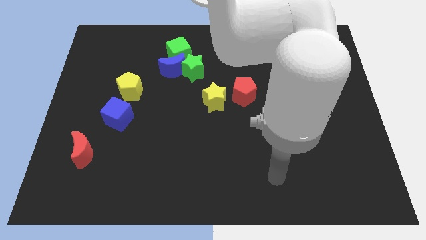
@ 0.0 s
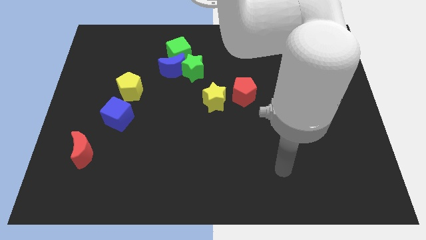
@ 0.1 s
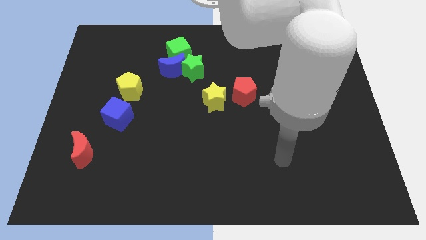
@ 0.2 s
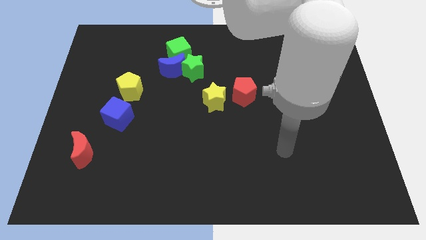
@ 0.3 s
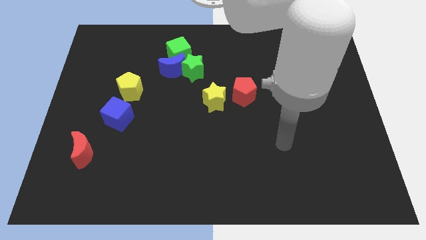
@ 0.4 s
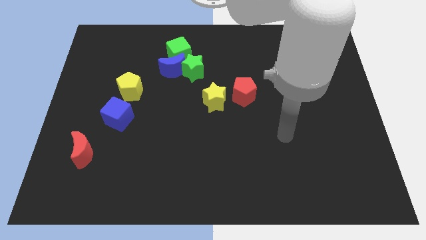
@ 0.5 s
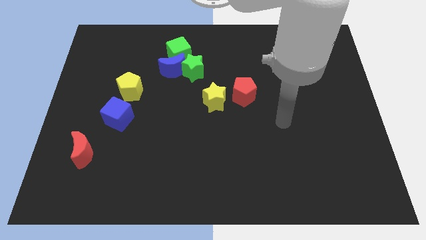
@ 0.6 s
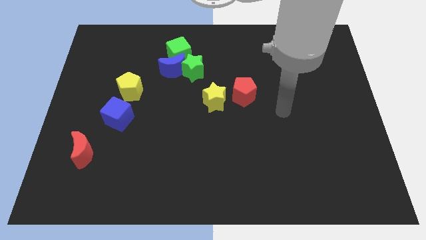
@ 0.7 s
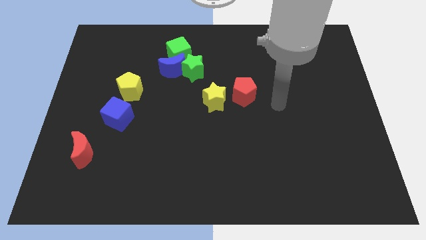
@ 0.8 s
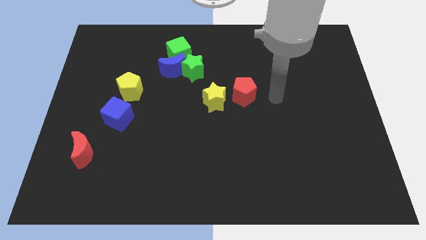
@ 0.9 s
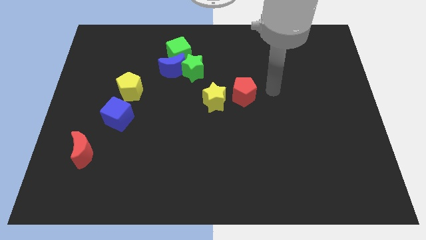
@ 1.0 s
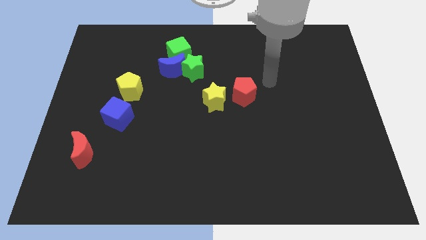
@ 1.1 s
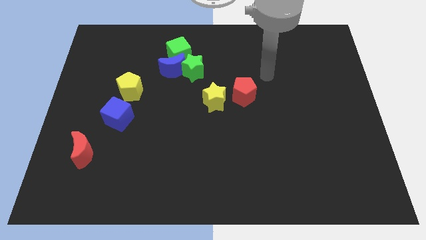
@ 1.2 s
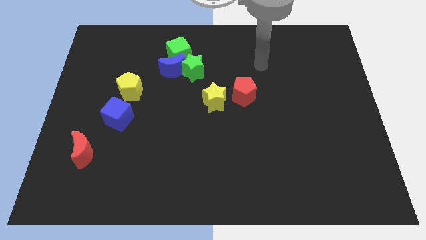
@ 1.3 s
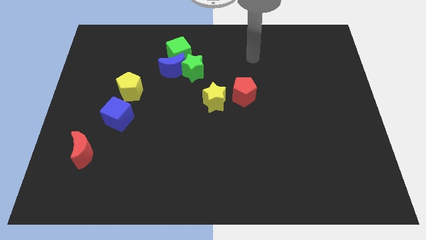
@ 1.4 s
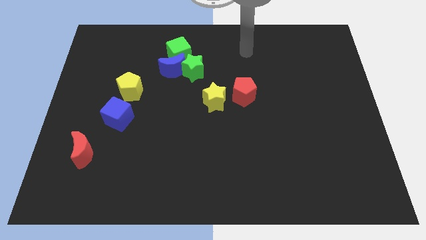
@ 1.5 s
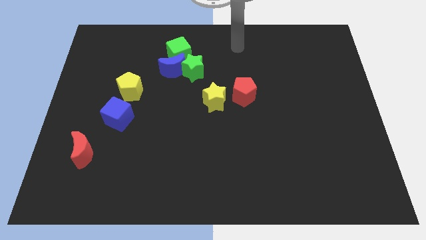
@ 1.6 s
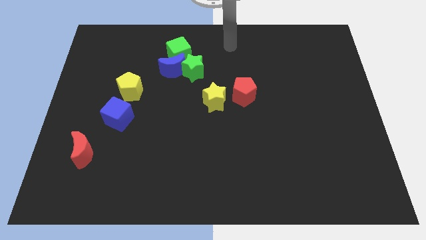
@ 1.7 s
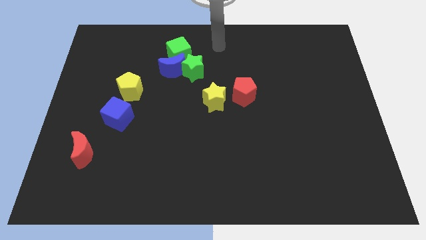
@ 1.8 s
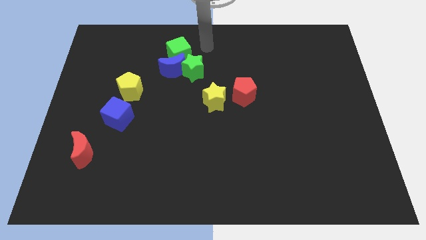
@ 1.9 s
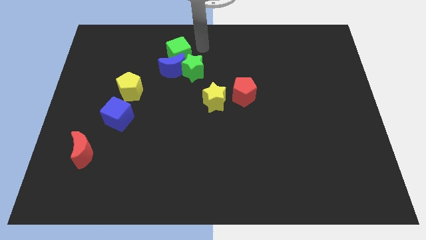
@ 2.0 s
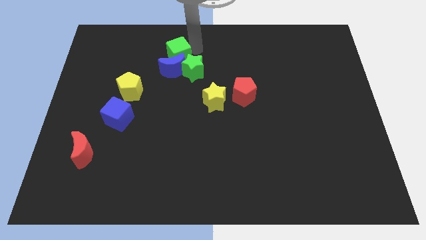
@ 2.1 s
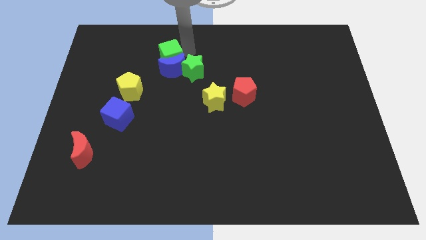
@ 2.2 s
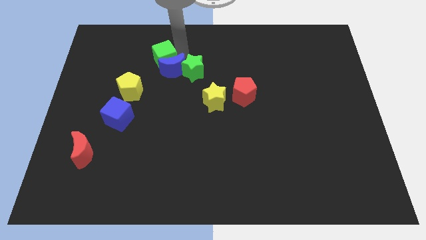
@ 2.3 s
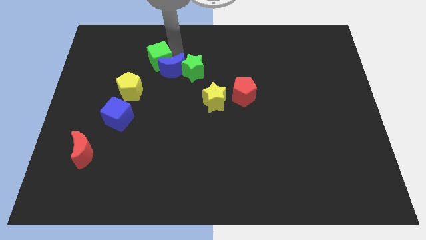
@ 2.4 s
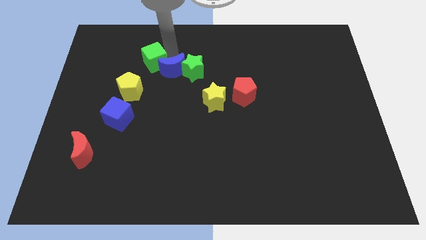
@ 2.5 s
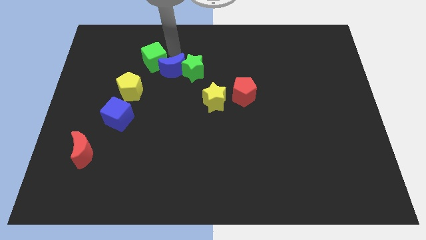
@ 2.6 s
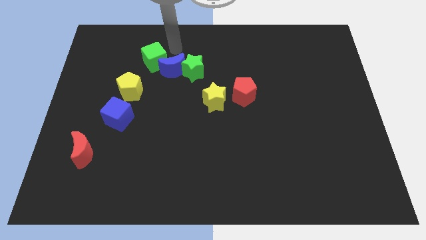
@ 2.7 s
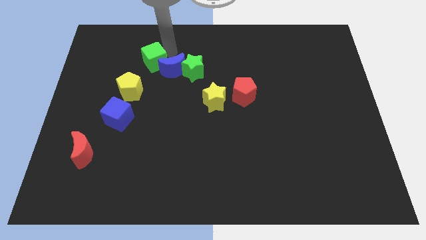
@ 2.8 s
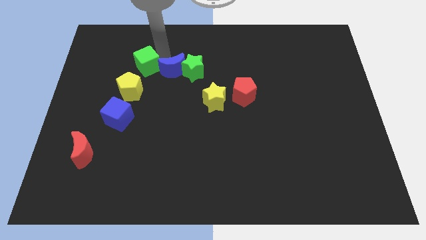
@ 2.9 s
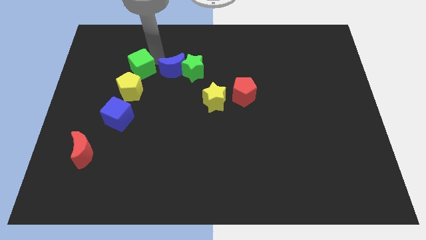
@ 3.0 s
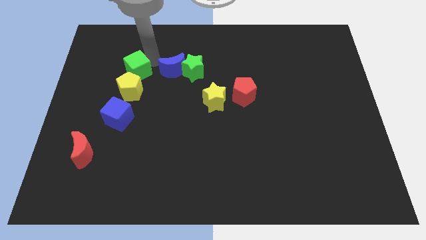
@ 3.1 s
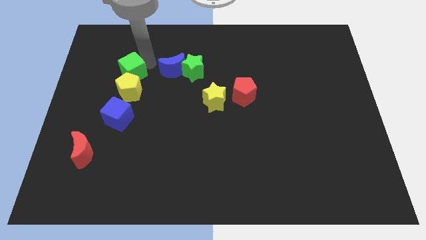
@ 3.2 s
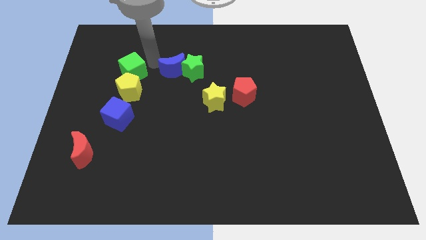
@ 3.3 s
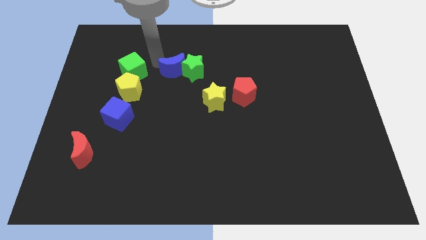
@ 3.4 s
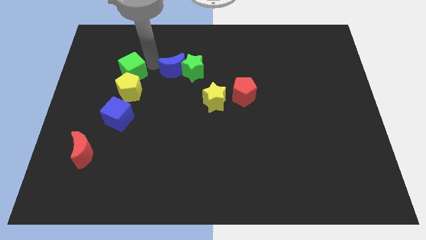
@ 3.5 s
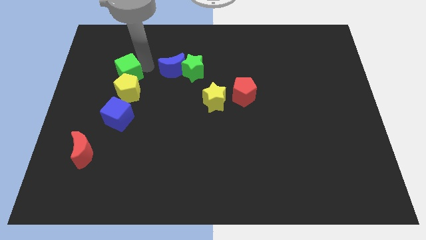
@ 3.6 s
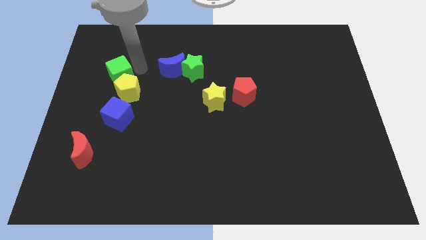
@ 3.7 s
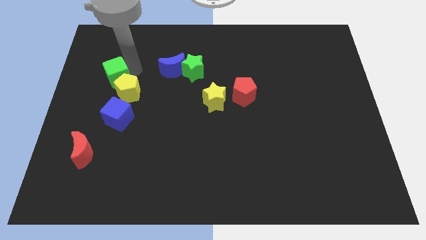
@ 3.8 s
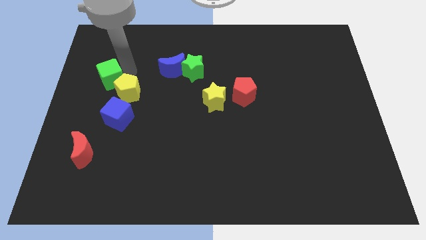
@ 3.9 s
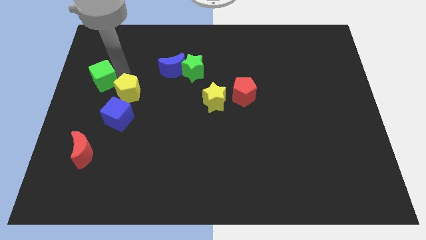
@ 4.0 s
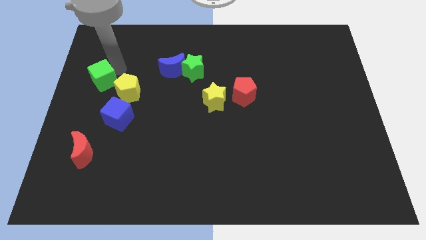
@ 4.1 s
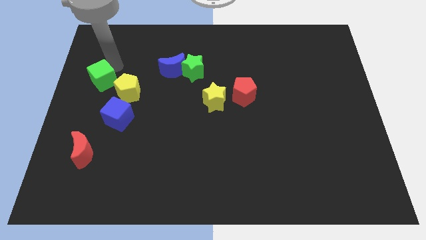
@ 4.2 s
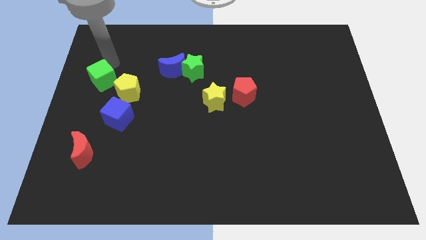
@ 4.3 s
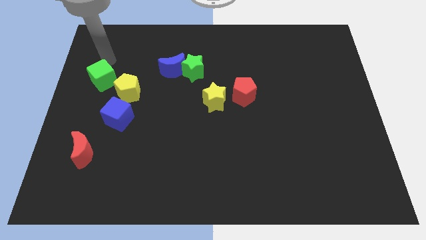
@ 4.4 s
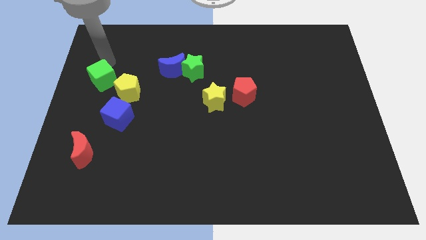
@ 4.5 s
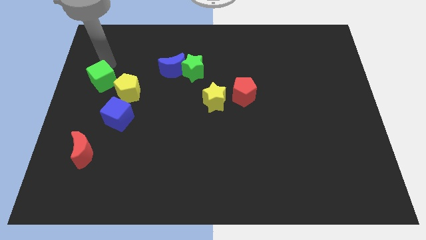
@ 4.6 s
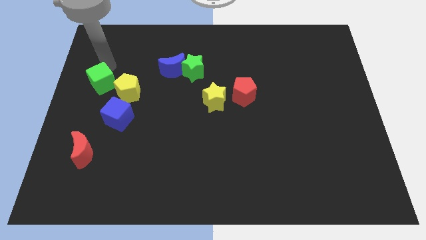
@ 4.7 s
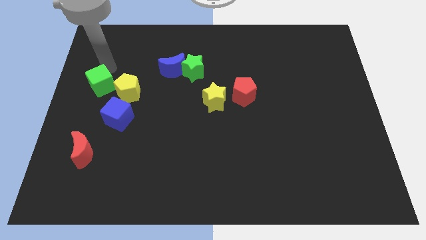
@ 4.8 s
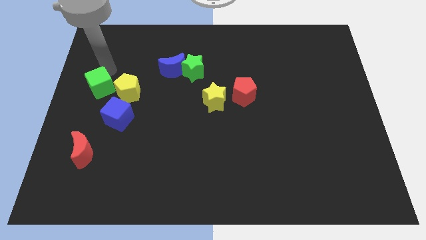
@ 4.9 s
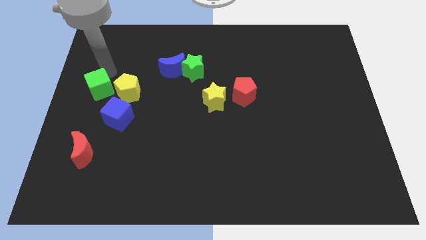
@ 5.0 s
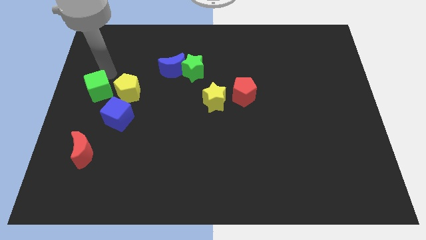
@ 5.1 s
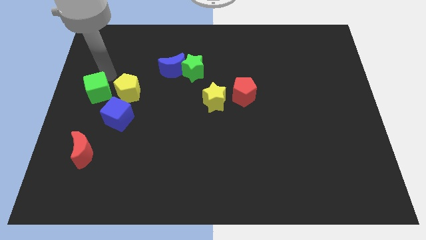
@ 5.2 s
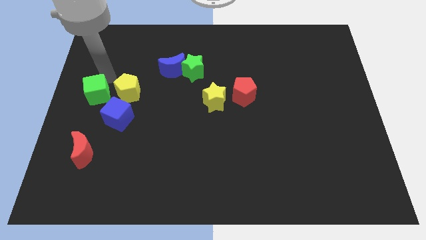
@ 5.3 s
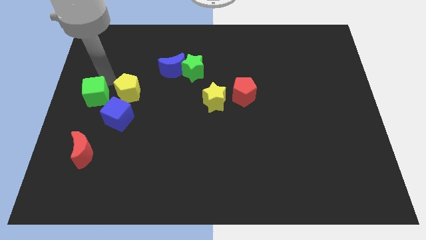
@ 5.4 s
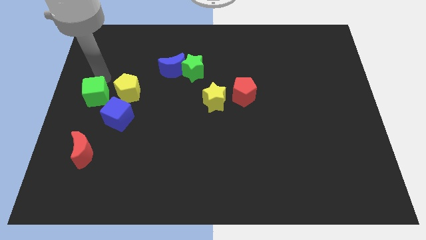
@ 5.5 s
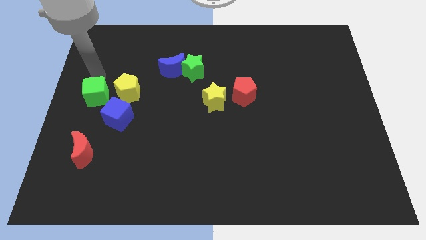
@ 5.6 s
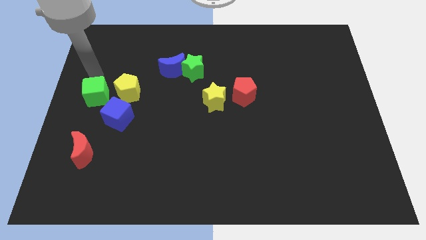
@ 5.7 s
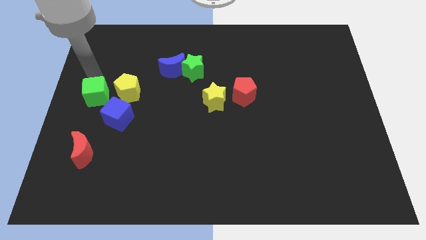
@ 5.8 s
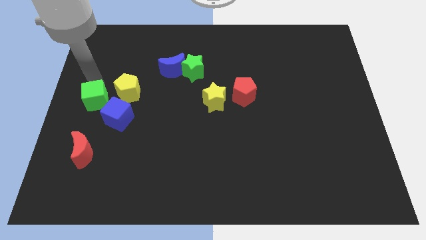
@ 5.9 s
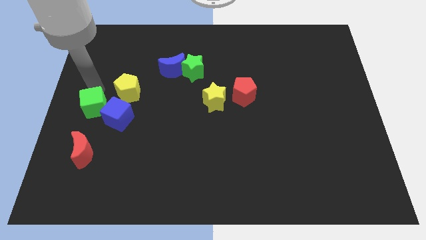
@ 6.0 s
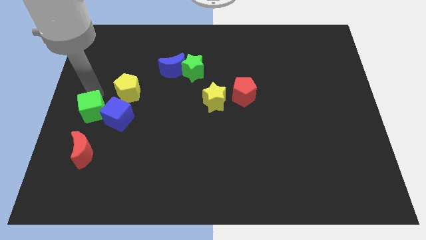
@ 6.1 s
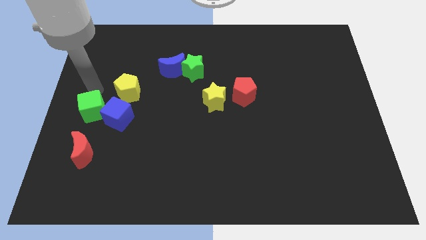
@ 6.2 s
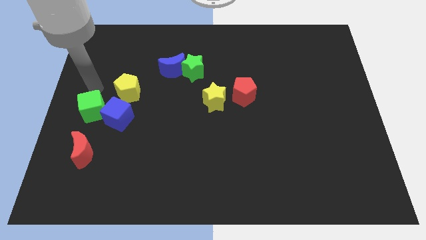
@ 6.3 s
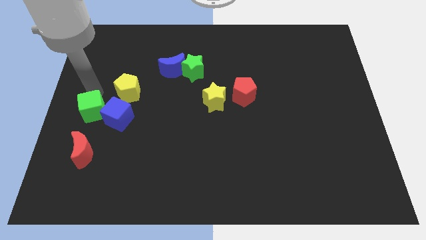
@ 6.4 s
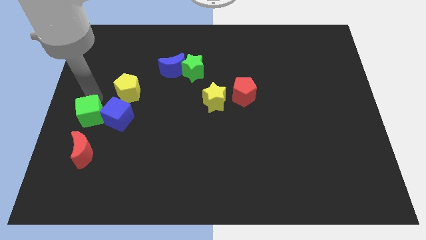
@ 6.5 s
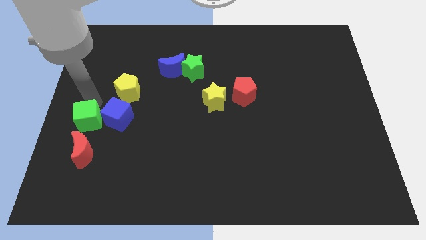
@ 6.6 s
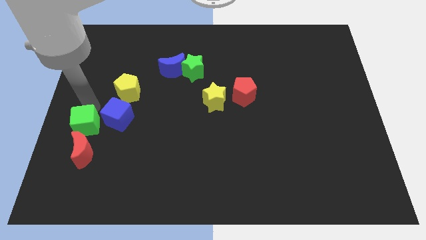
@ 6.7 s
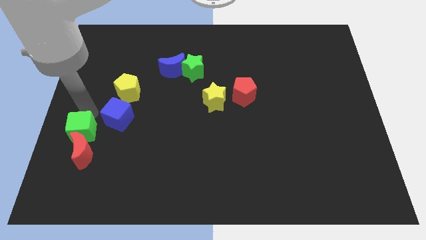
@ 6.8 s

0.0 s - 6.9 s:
push the green cube next to the red moon

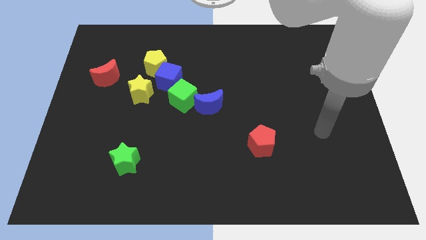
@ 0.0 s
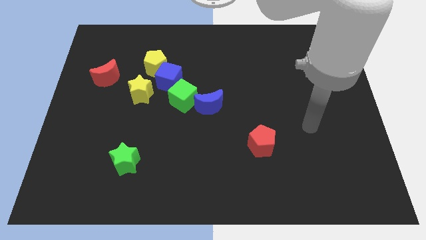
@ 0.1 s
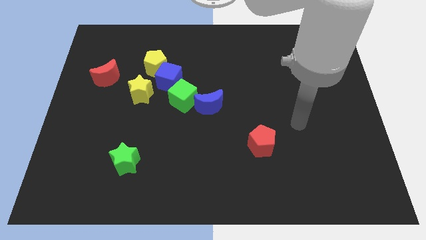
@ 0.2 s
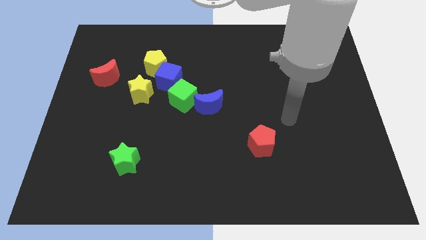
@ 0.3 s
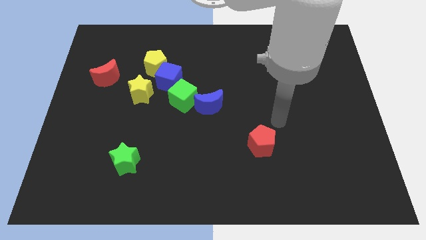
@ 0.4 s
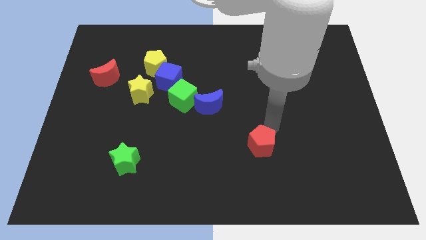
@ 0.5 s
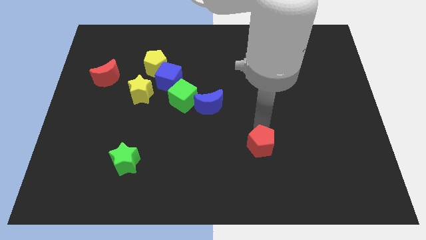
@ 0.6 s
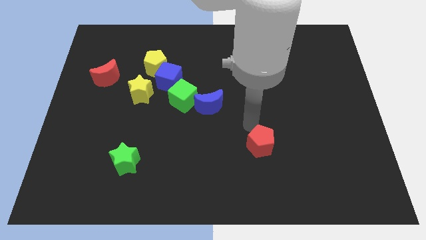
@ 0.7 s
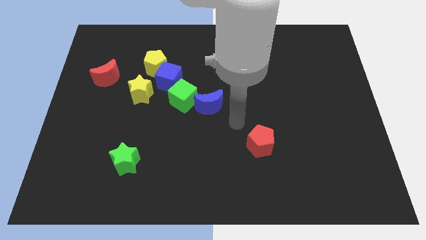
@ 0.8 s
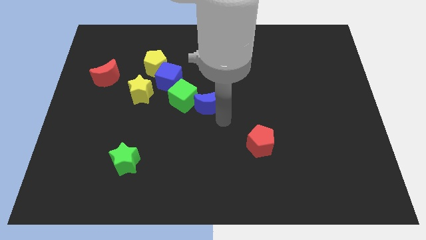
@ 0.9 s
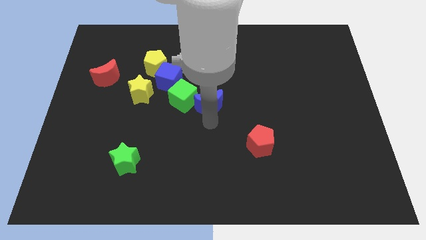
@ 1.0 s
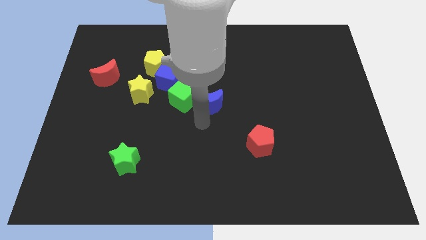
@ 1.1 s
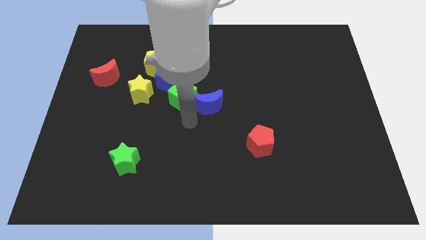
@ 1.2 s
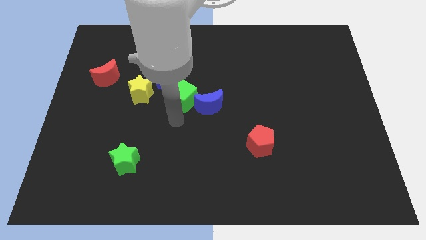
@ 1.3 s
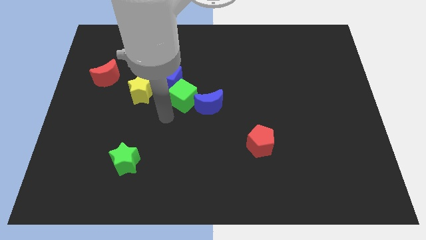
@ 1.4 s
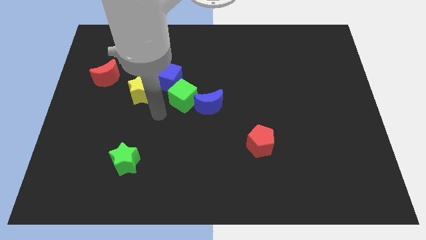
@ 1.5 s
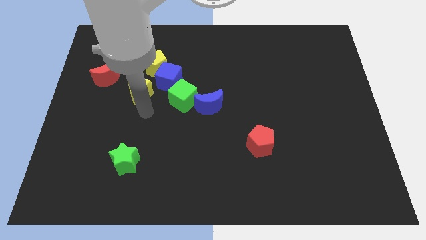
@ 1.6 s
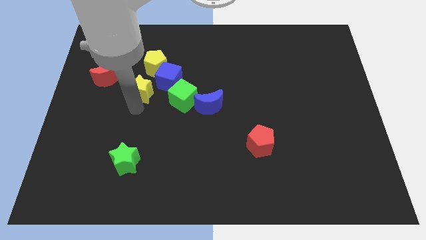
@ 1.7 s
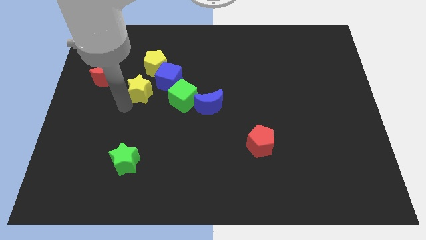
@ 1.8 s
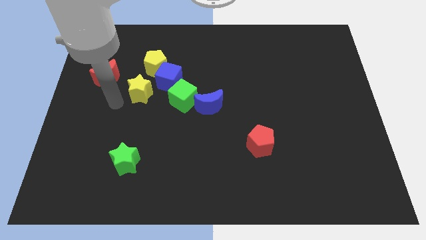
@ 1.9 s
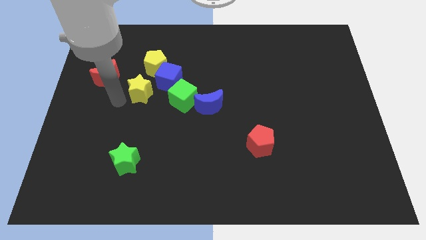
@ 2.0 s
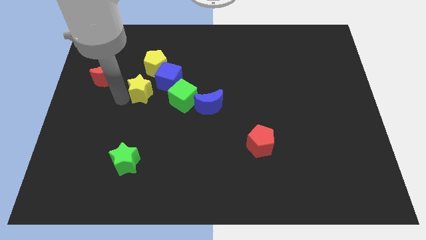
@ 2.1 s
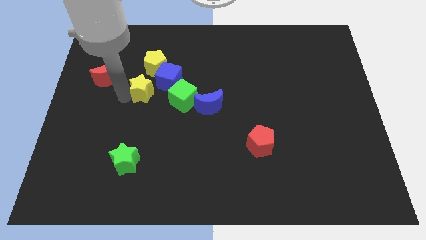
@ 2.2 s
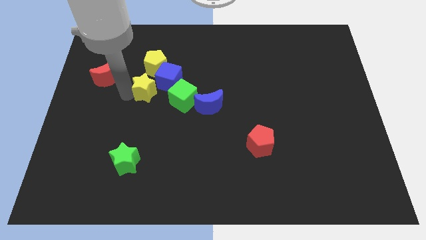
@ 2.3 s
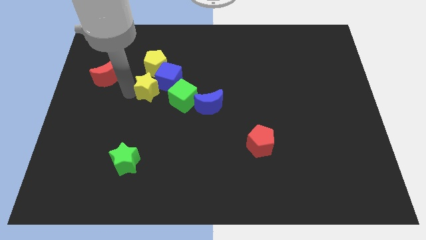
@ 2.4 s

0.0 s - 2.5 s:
put the yellow star towards the blue cube
